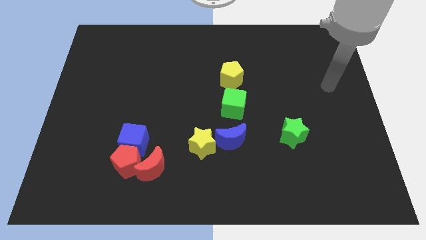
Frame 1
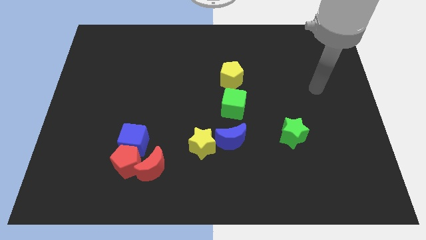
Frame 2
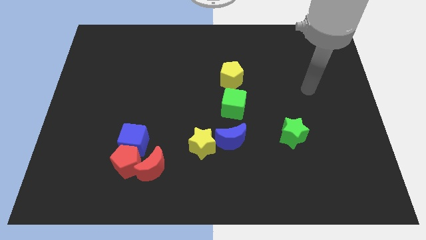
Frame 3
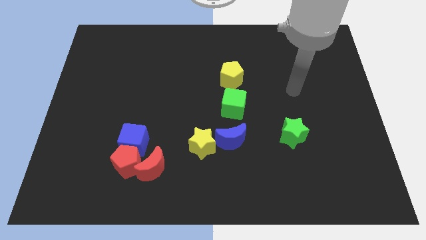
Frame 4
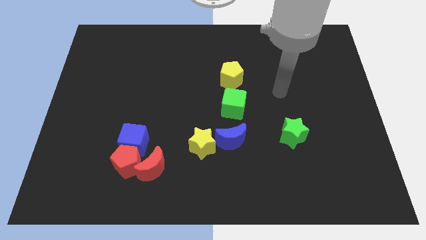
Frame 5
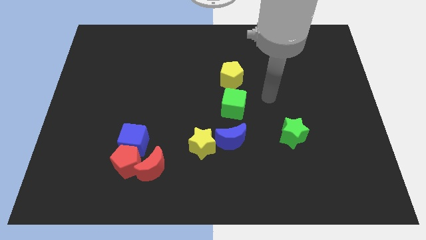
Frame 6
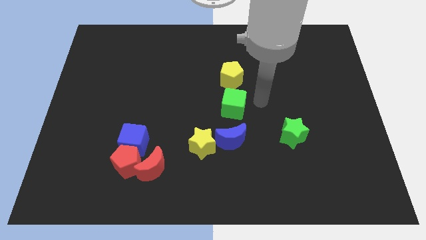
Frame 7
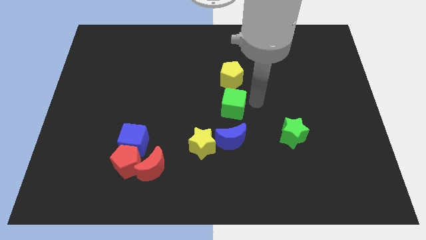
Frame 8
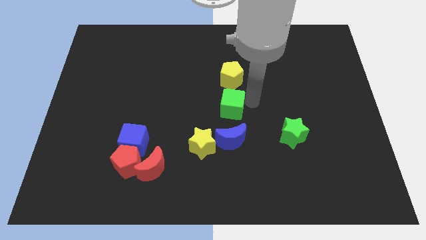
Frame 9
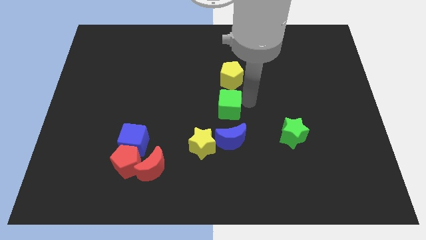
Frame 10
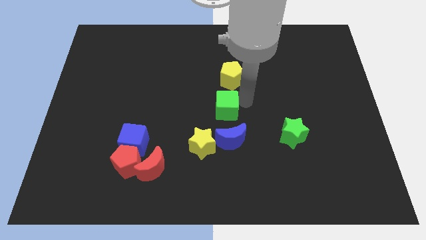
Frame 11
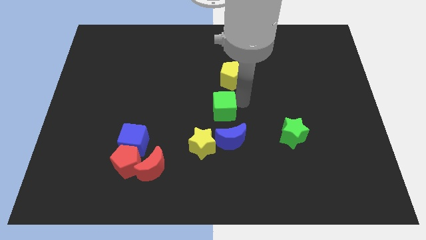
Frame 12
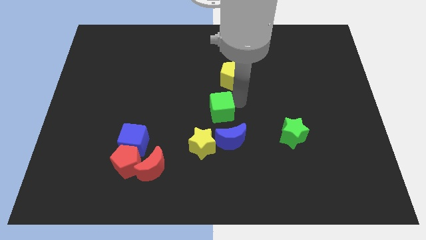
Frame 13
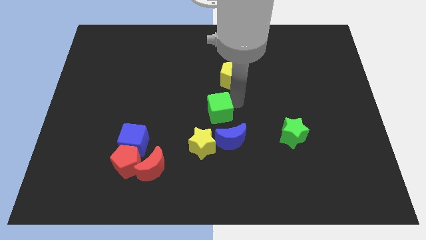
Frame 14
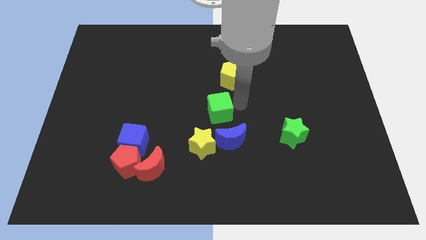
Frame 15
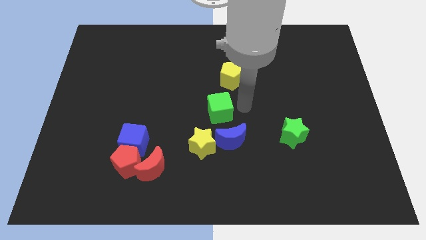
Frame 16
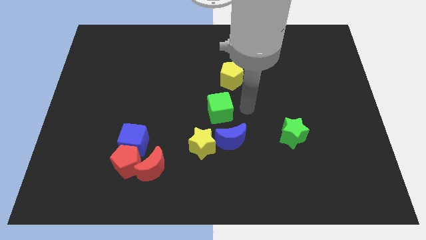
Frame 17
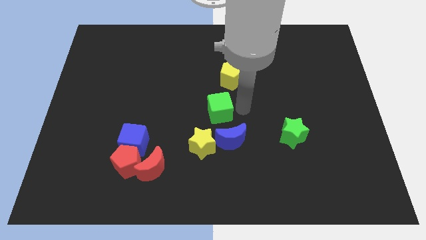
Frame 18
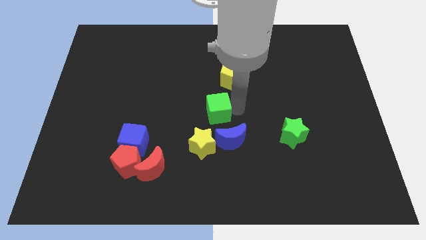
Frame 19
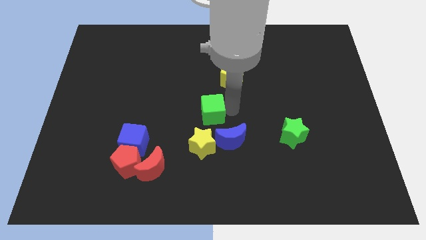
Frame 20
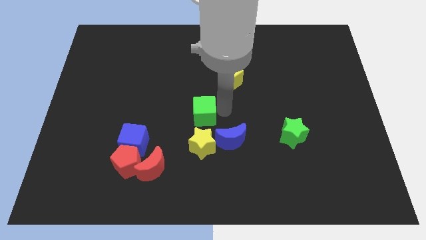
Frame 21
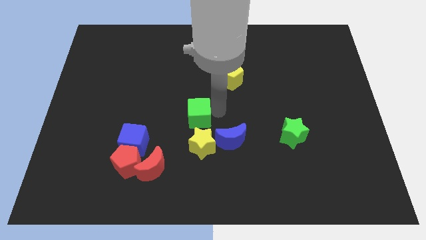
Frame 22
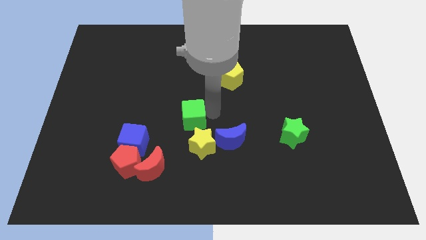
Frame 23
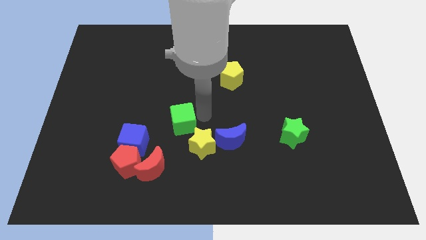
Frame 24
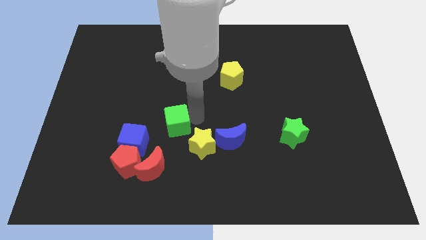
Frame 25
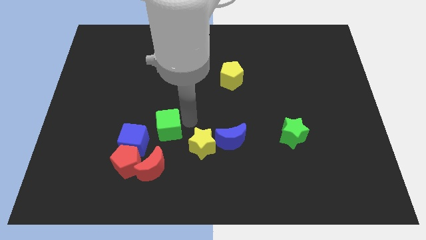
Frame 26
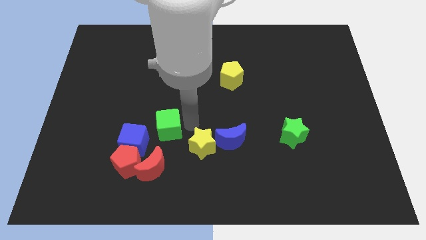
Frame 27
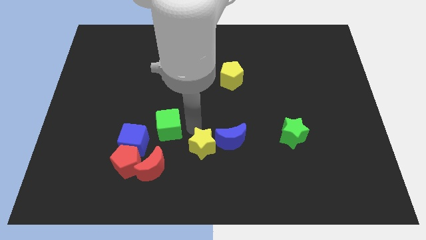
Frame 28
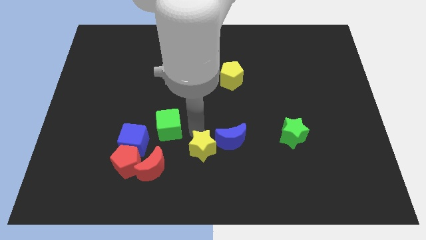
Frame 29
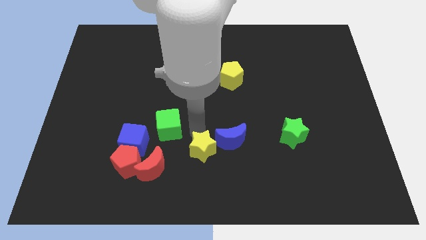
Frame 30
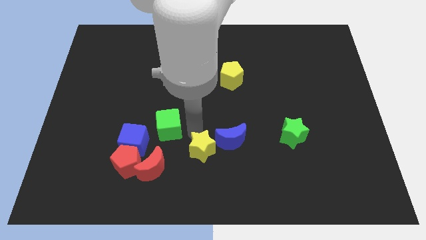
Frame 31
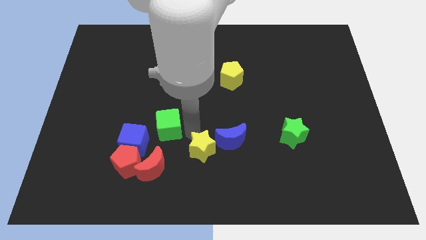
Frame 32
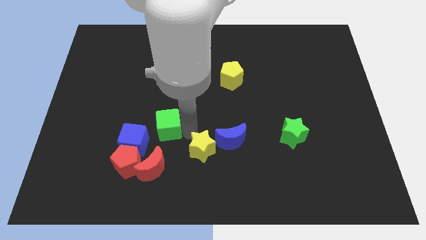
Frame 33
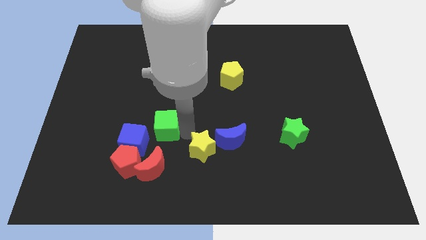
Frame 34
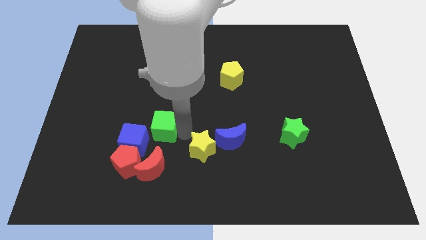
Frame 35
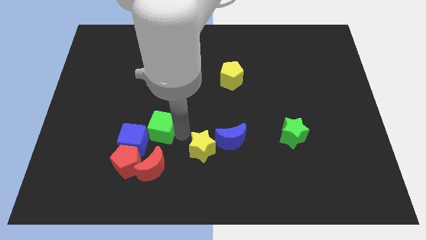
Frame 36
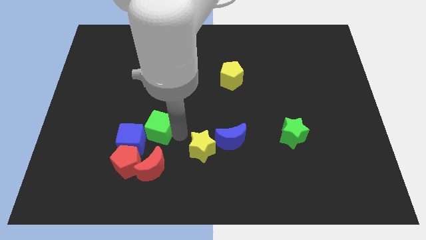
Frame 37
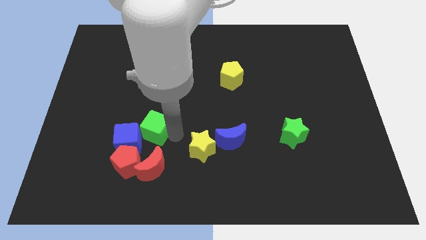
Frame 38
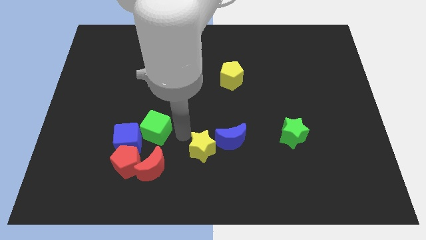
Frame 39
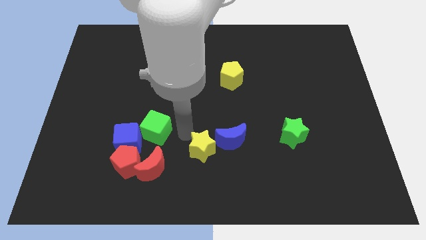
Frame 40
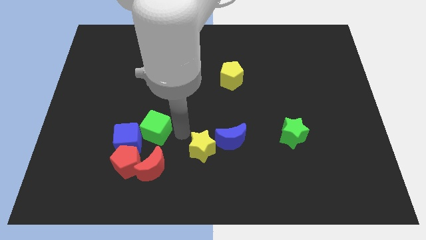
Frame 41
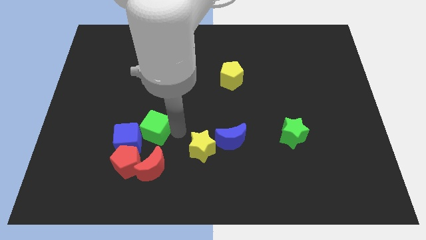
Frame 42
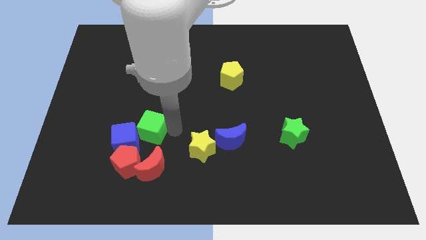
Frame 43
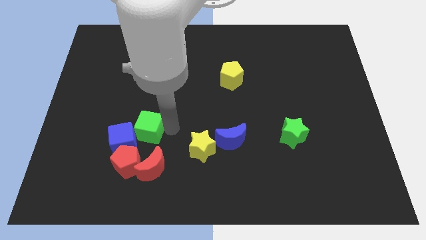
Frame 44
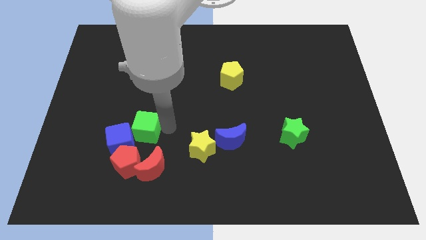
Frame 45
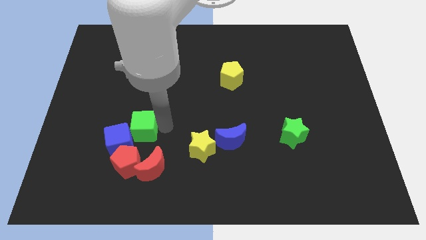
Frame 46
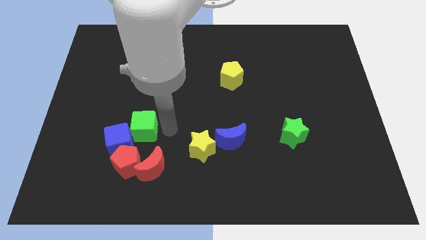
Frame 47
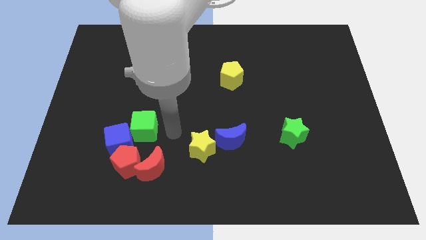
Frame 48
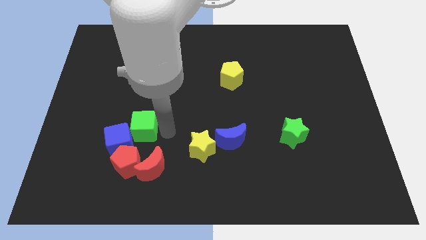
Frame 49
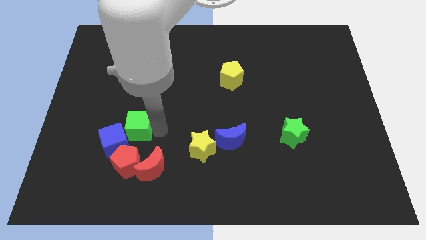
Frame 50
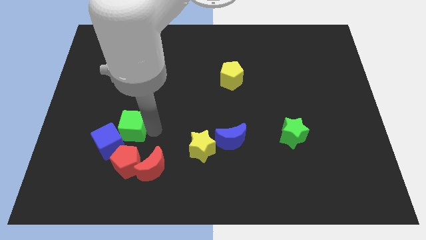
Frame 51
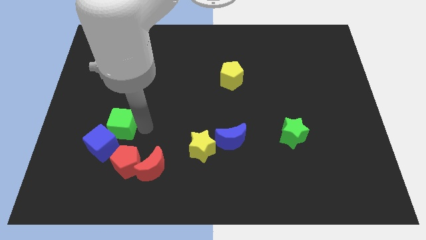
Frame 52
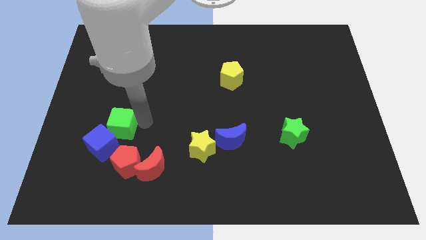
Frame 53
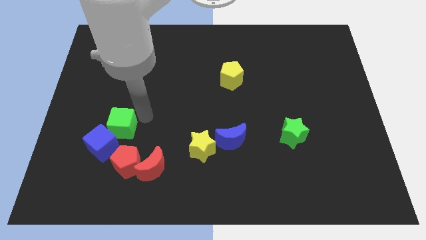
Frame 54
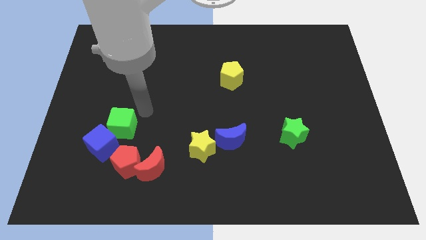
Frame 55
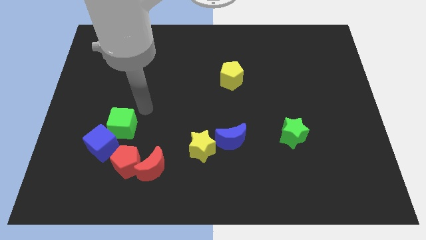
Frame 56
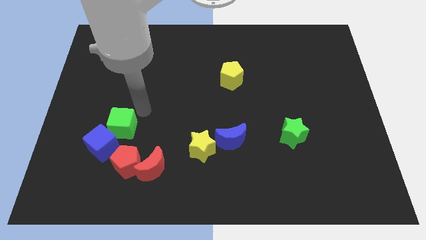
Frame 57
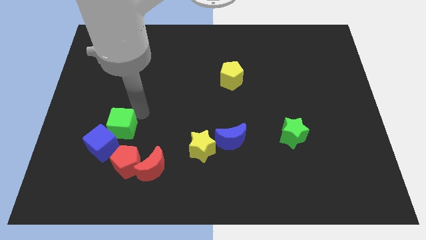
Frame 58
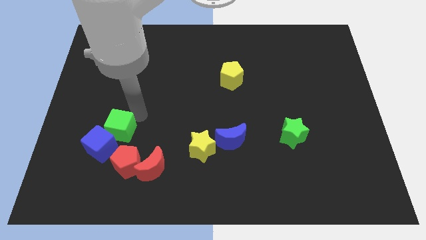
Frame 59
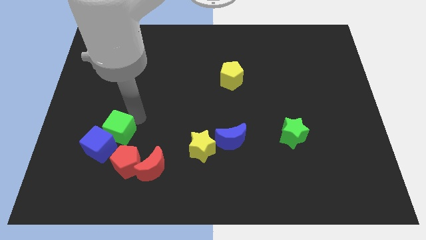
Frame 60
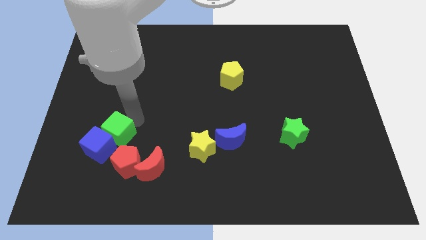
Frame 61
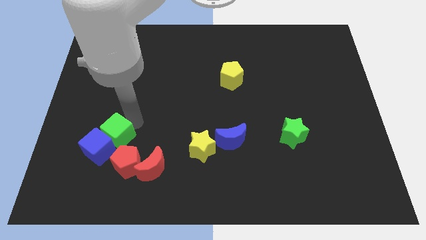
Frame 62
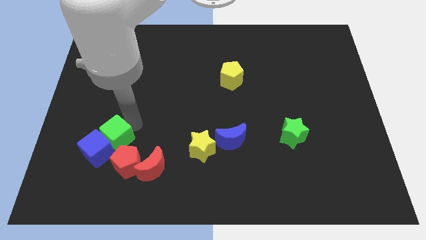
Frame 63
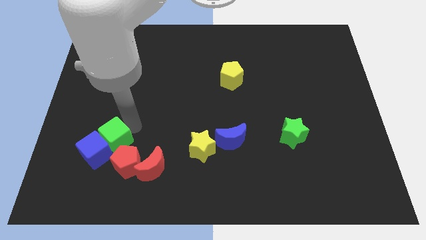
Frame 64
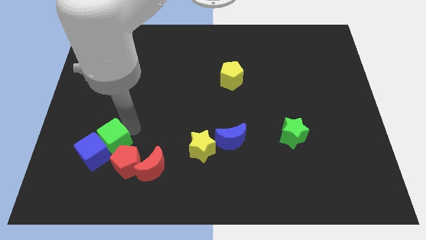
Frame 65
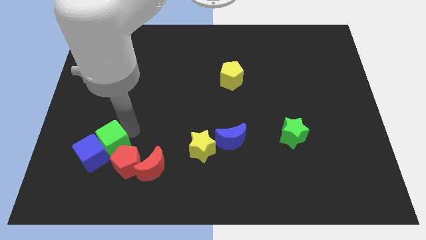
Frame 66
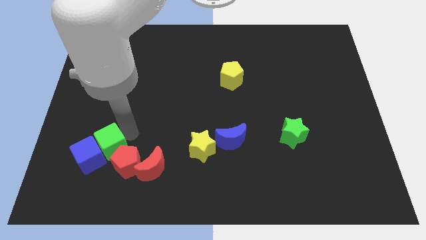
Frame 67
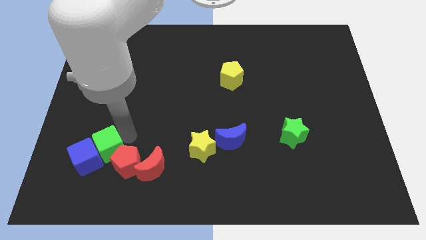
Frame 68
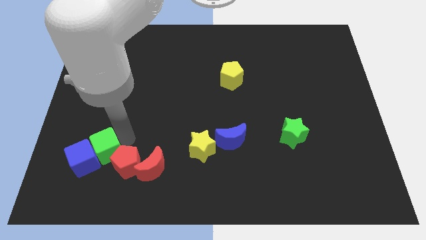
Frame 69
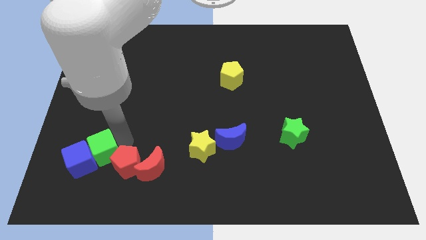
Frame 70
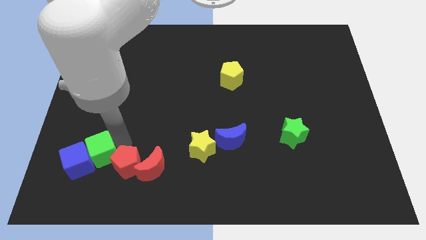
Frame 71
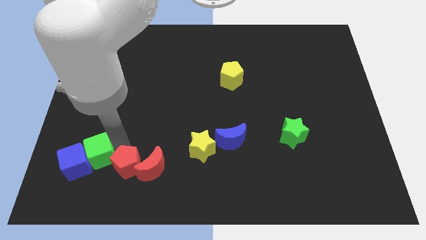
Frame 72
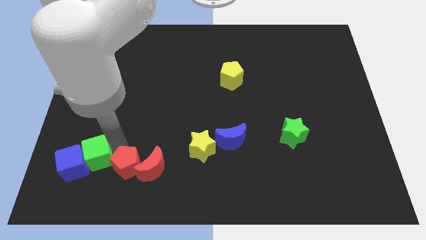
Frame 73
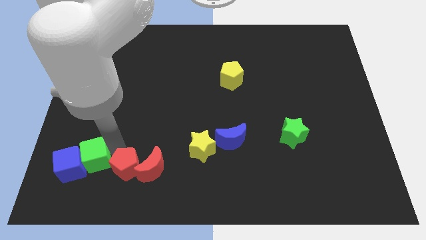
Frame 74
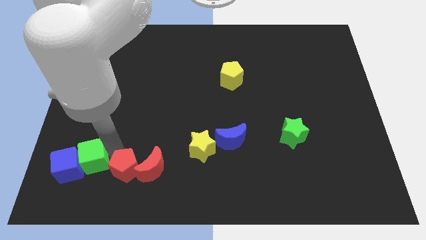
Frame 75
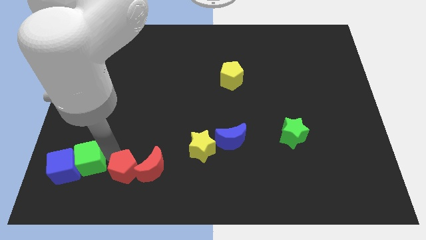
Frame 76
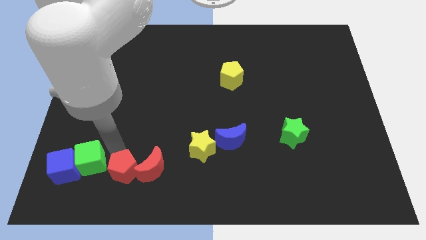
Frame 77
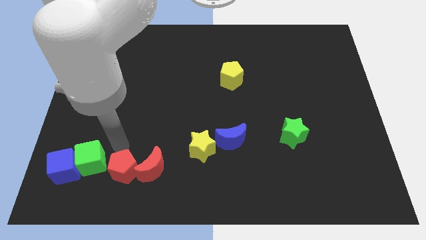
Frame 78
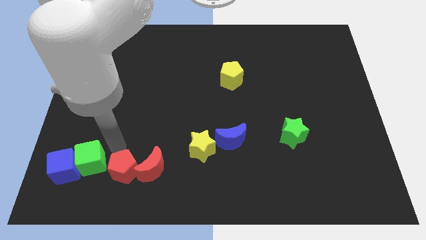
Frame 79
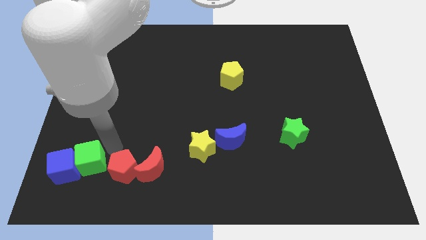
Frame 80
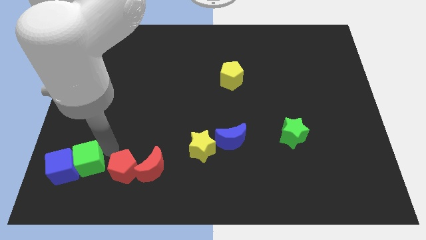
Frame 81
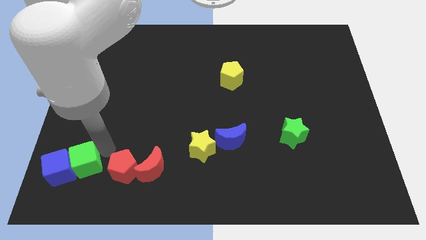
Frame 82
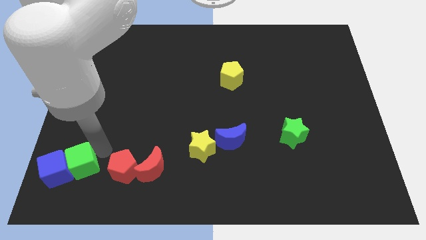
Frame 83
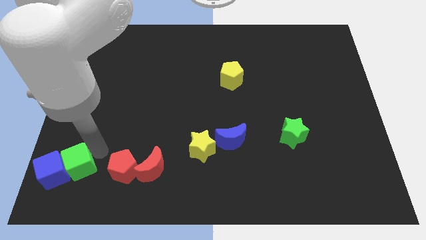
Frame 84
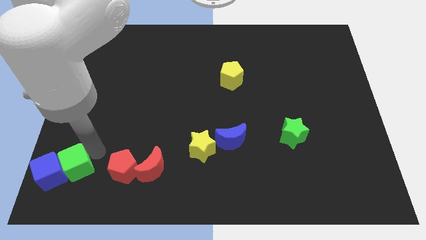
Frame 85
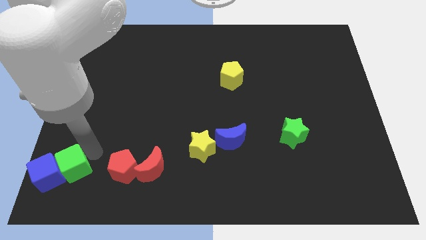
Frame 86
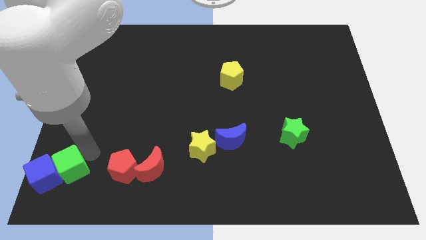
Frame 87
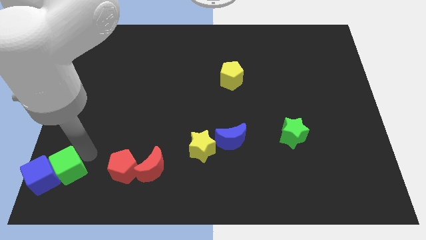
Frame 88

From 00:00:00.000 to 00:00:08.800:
move the green cube to the lower left corner
